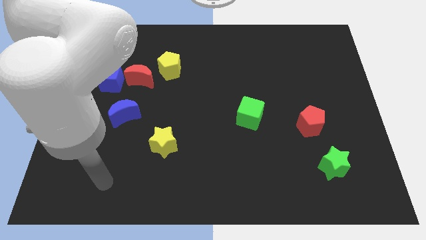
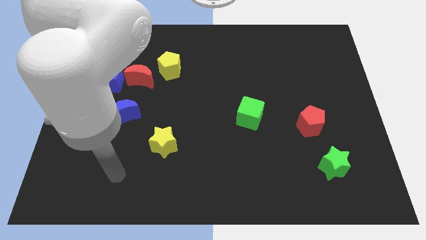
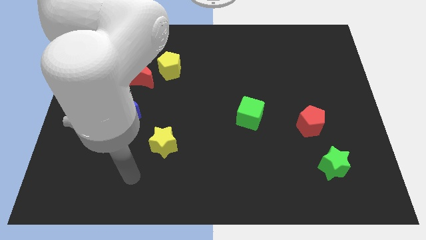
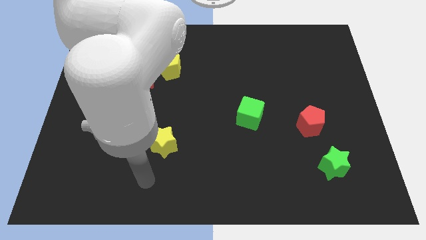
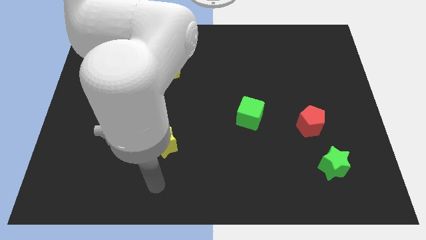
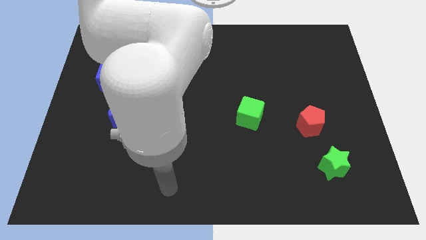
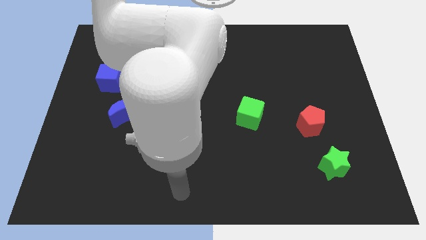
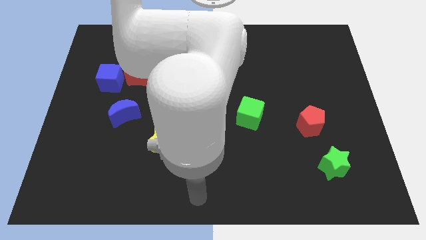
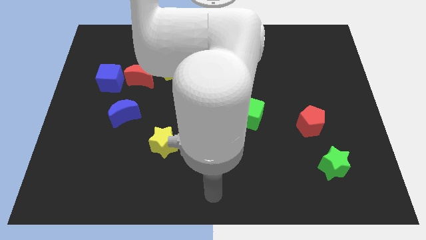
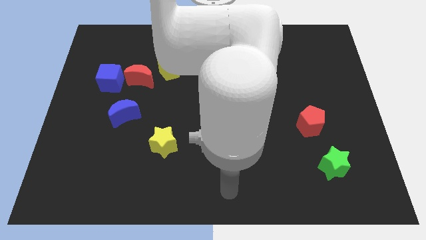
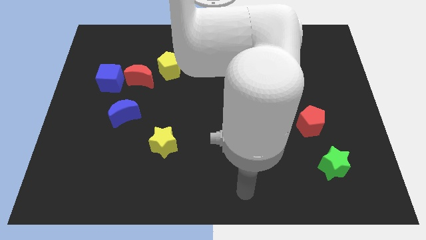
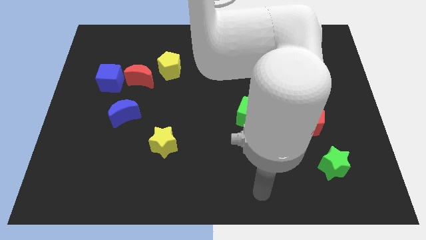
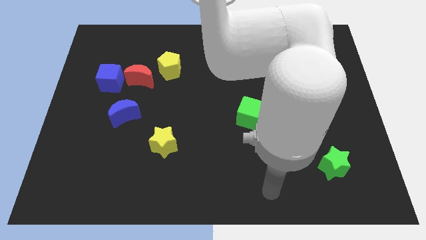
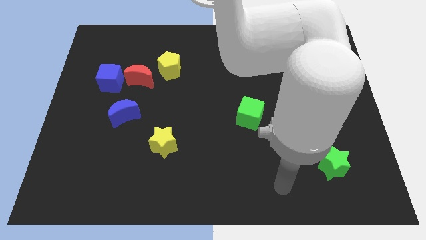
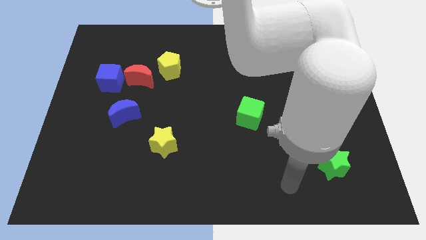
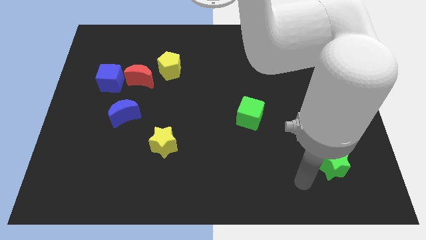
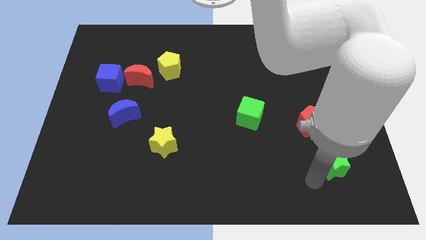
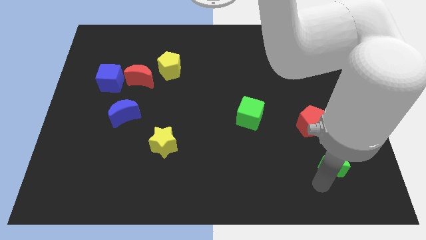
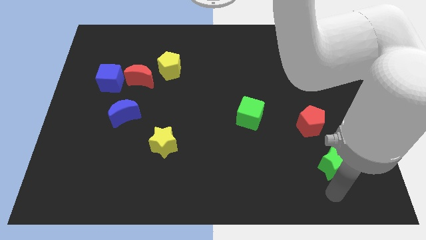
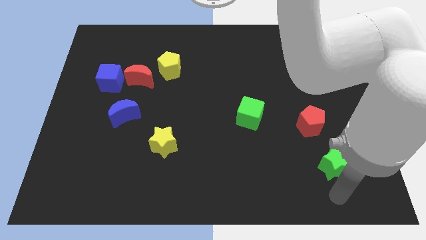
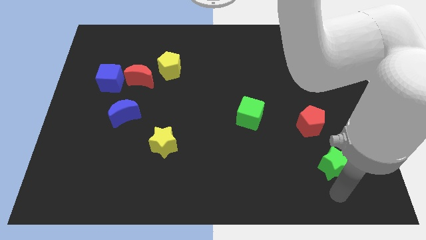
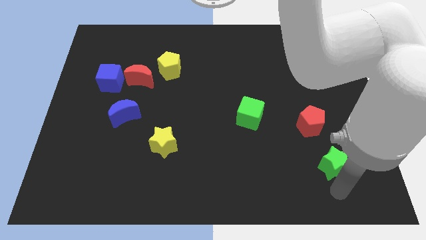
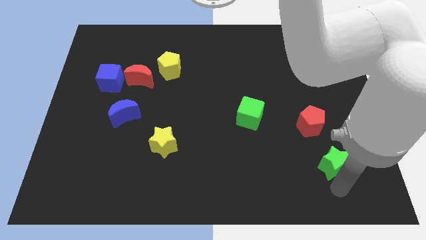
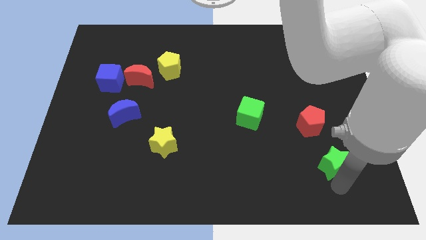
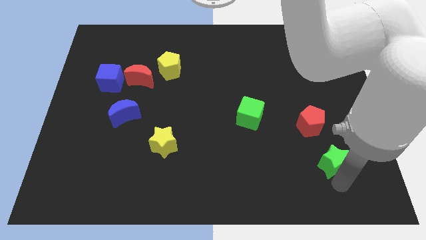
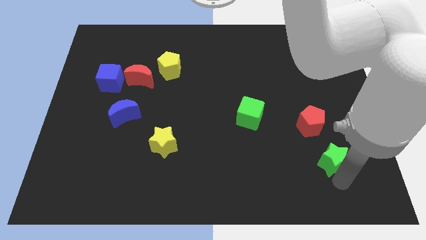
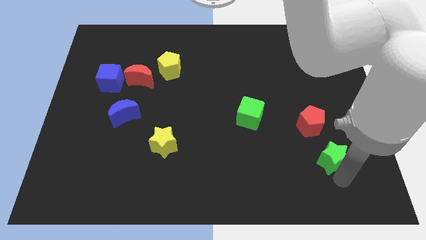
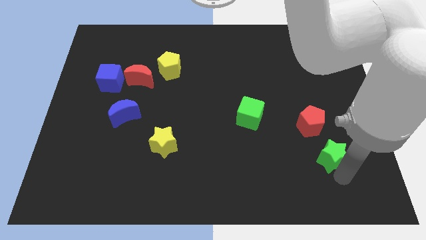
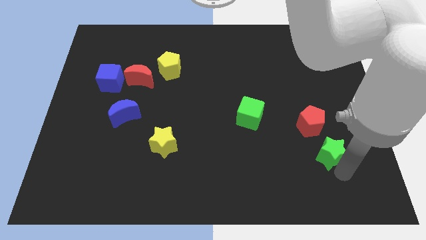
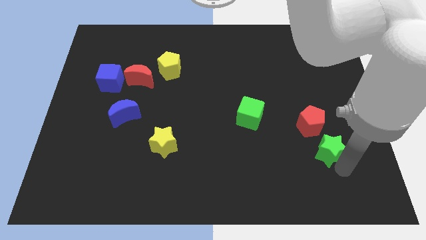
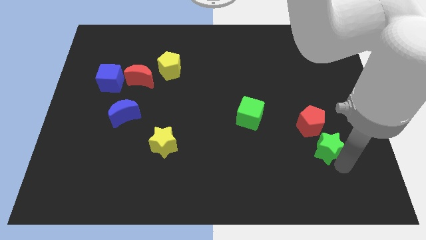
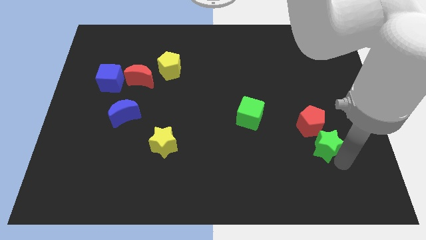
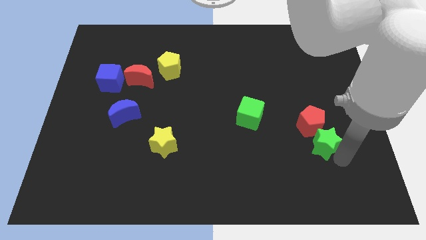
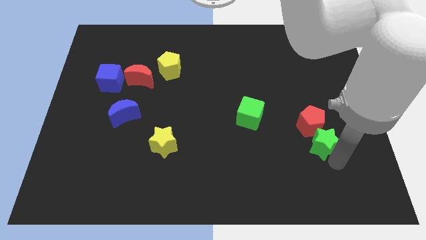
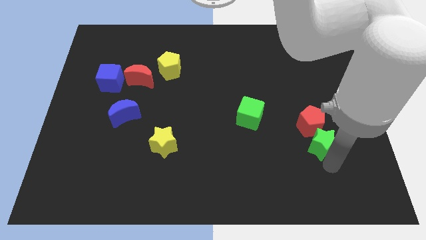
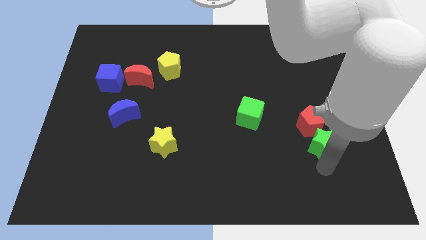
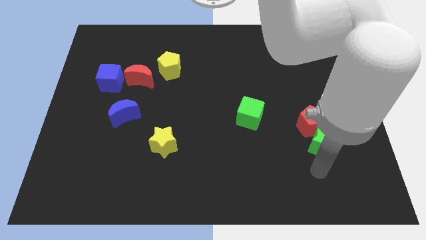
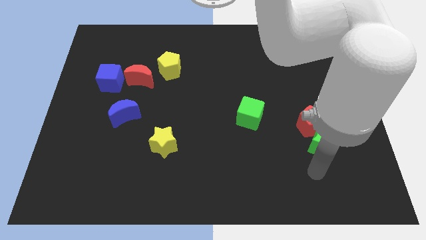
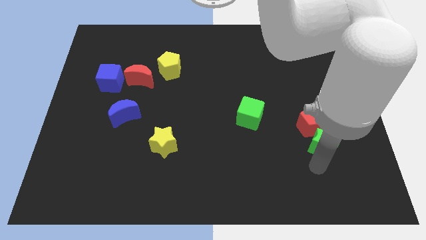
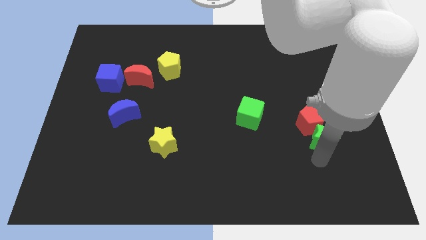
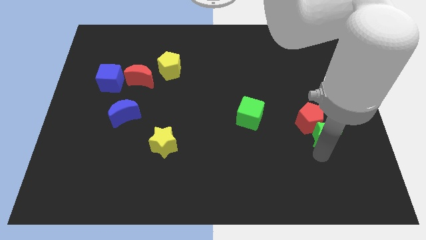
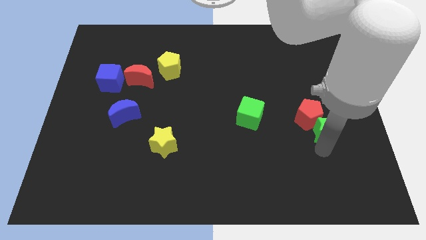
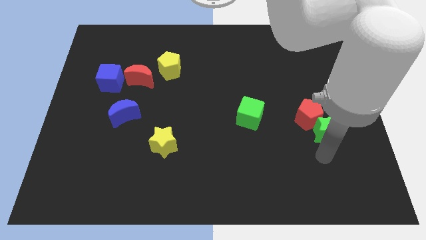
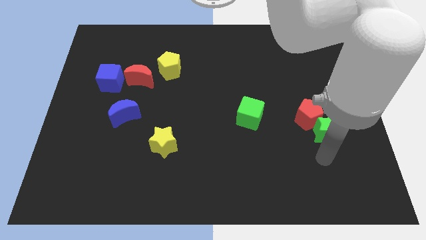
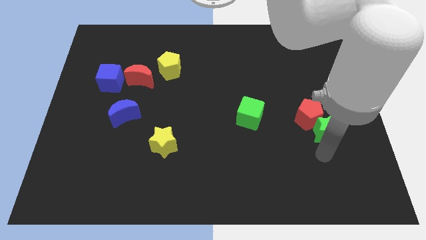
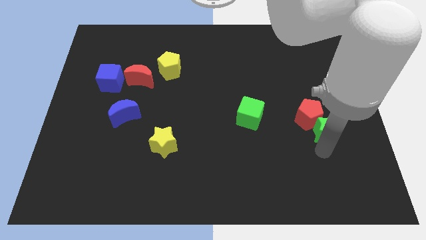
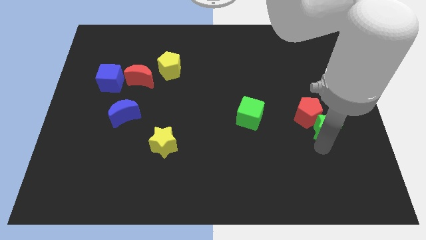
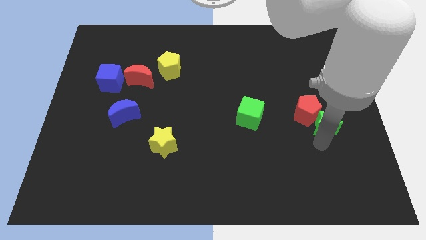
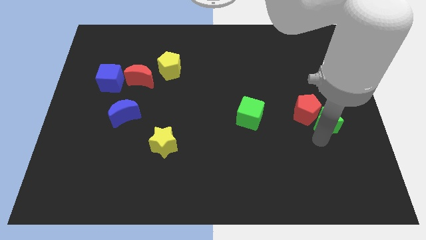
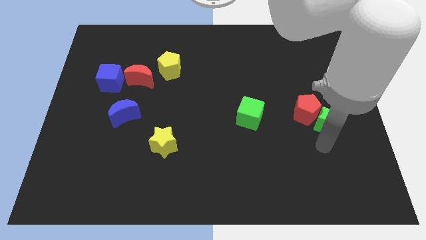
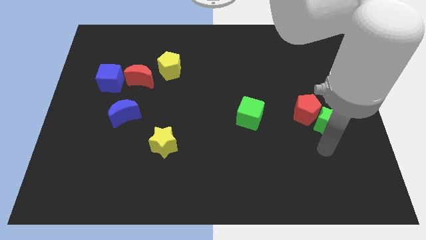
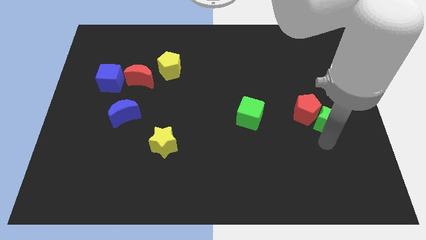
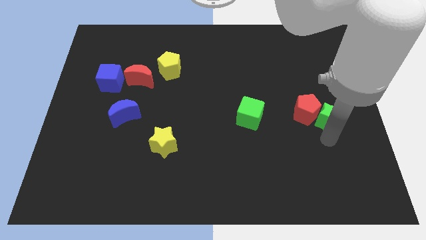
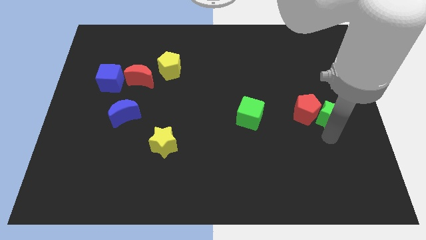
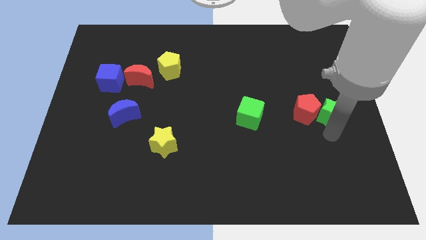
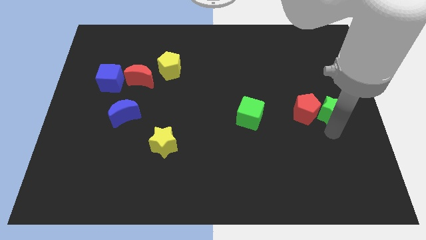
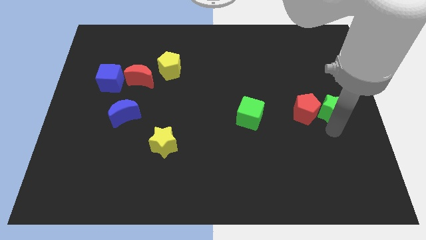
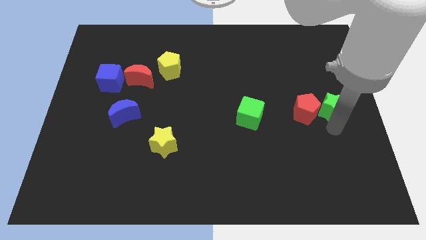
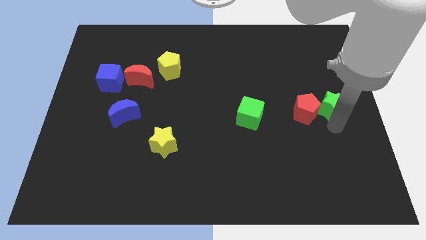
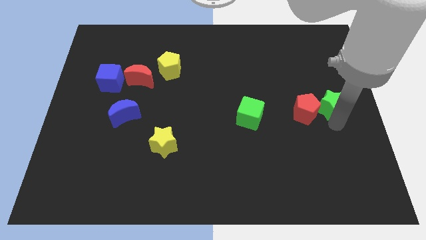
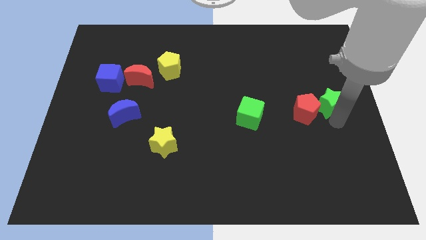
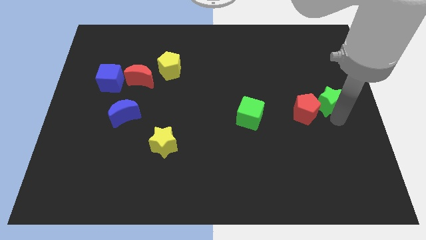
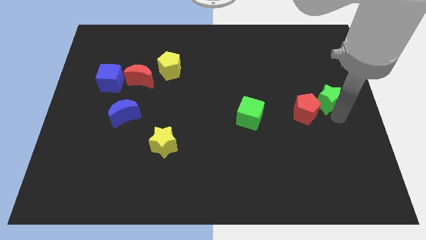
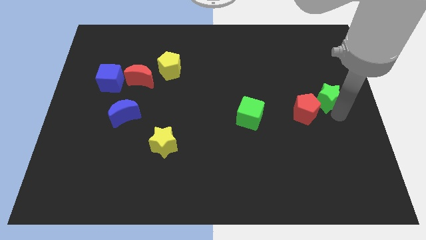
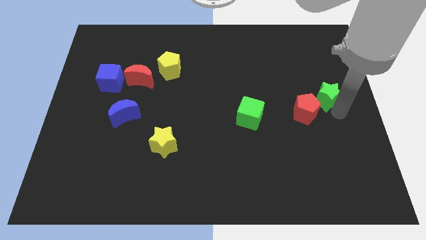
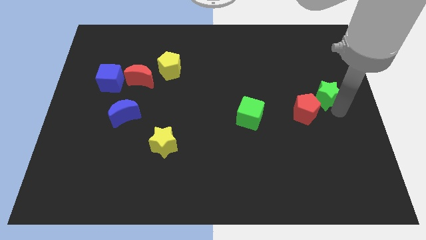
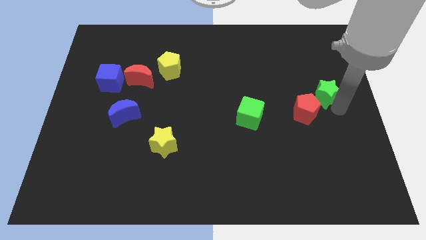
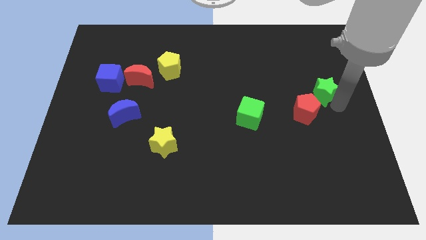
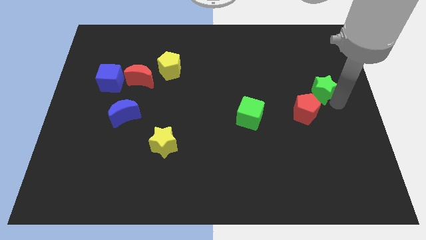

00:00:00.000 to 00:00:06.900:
push the green star up

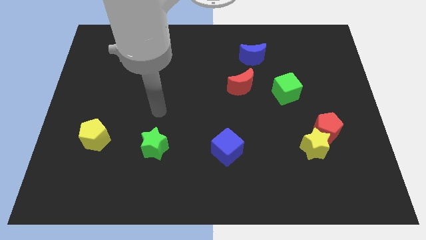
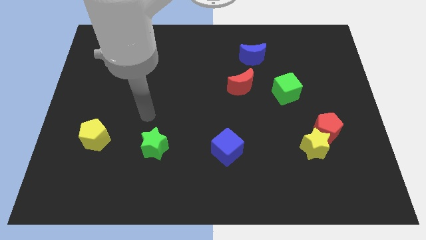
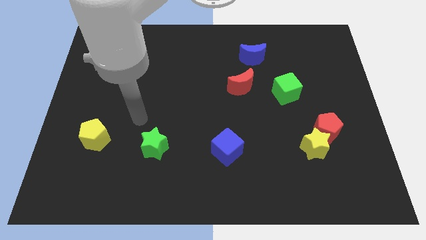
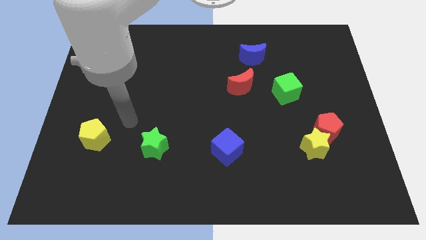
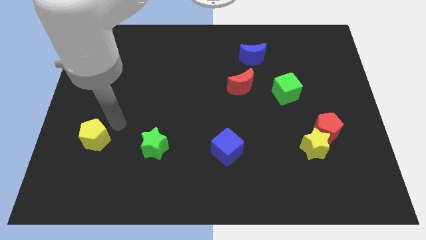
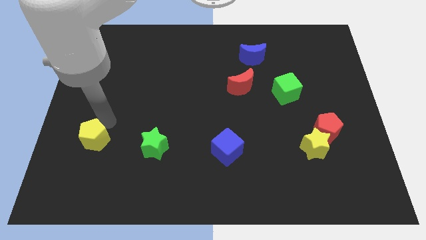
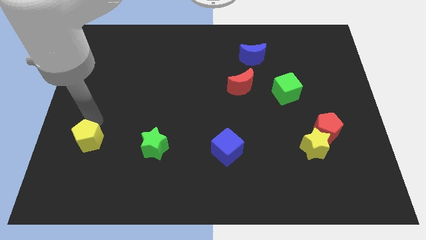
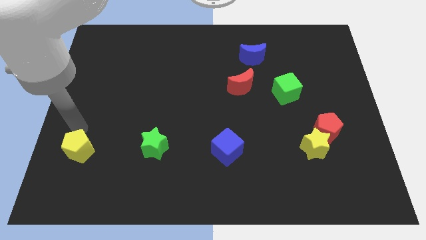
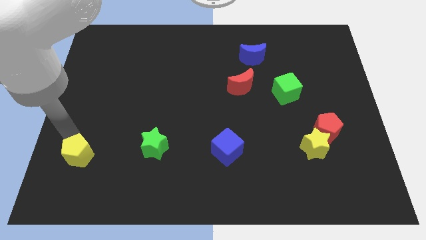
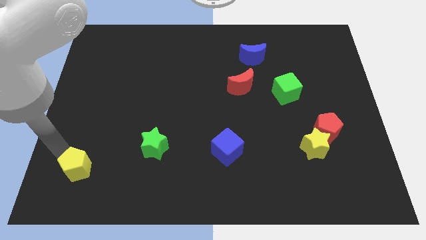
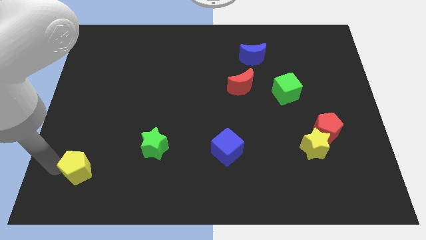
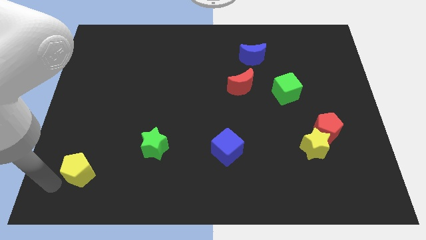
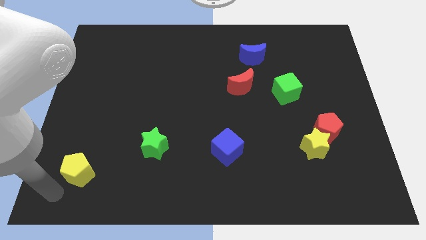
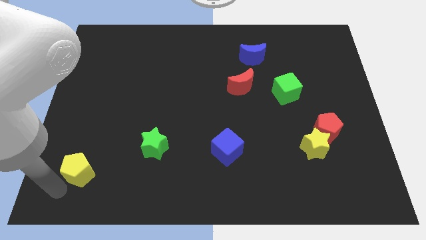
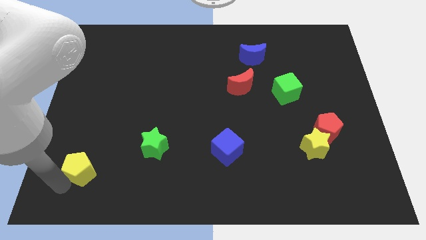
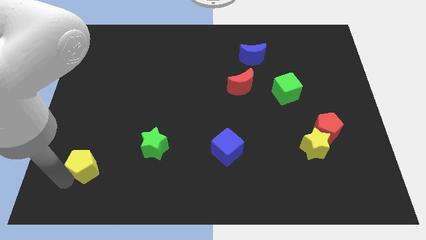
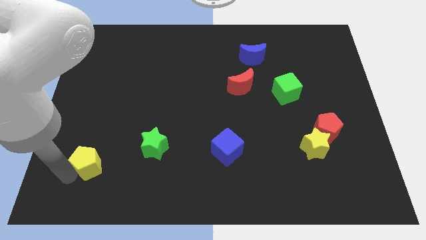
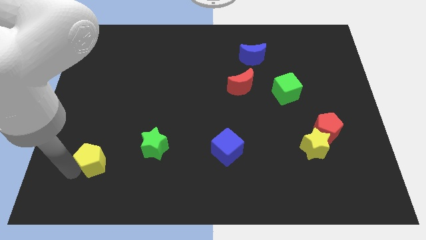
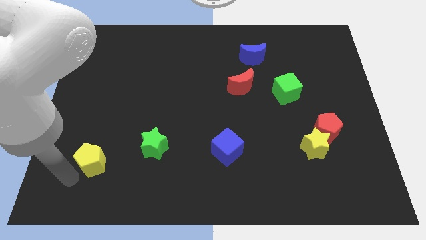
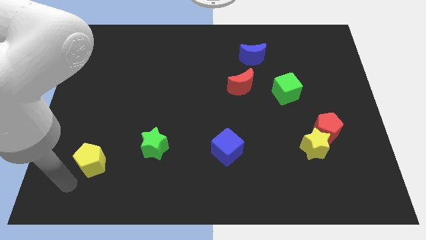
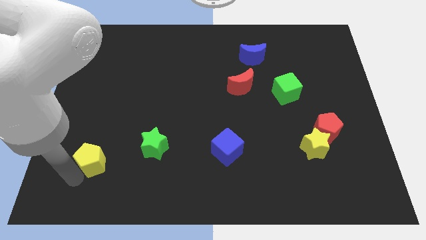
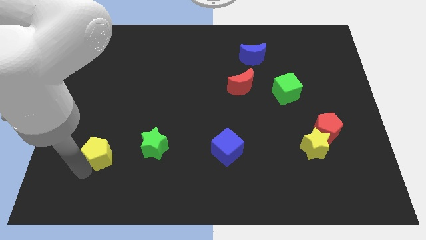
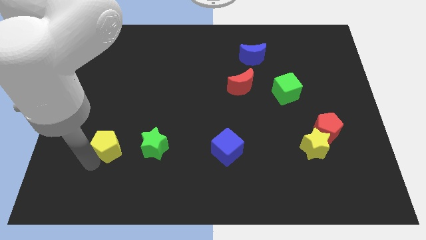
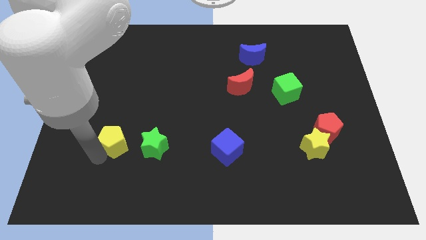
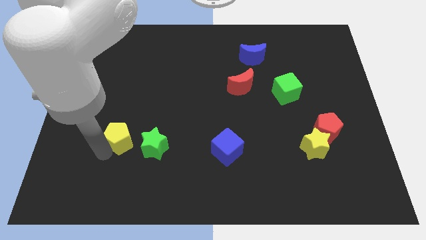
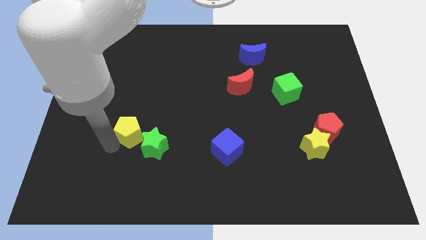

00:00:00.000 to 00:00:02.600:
push the yellow pentagon right a little
